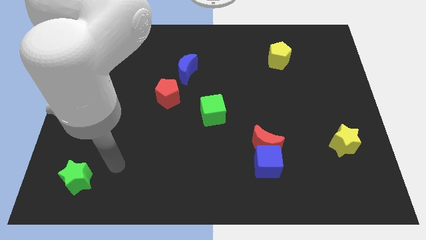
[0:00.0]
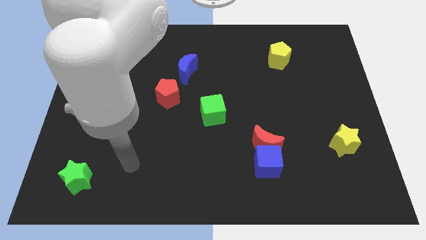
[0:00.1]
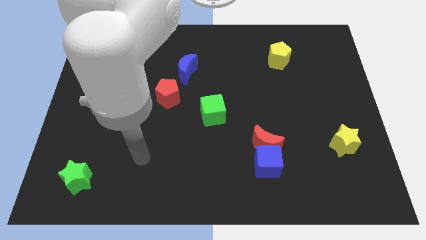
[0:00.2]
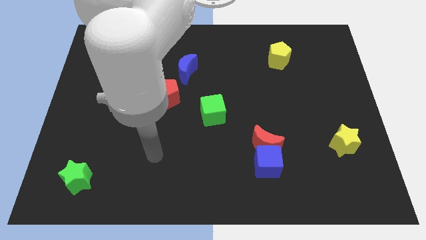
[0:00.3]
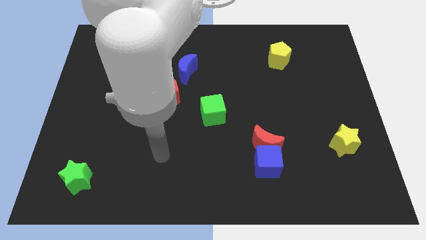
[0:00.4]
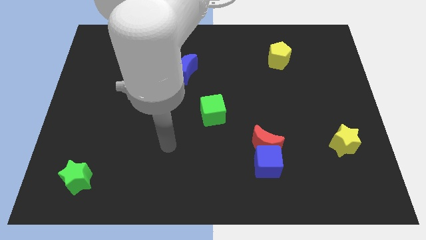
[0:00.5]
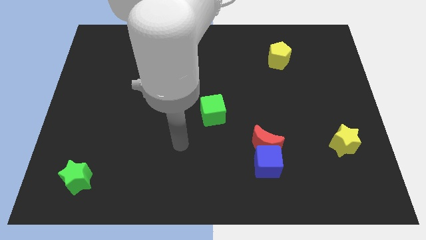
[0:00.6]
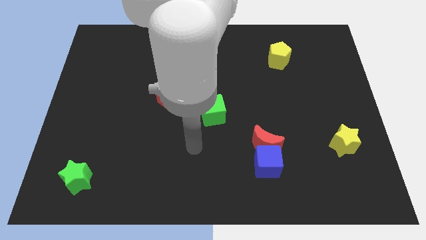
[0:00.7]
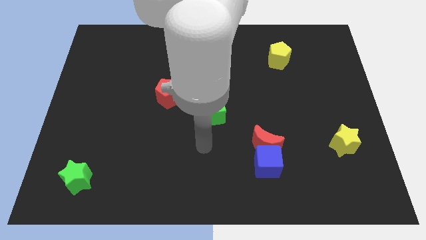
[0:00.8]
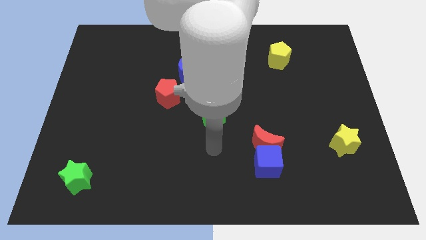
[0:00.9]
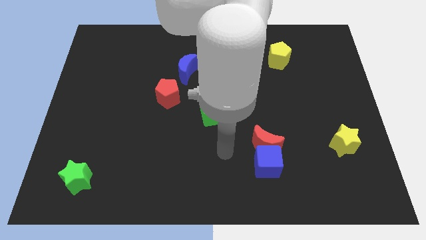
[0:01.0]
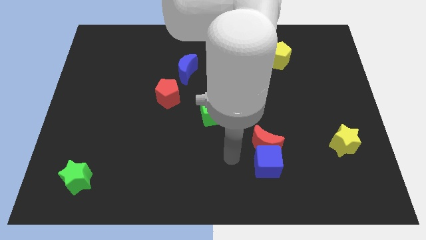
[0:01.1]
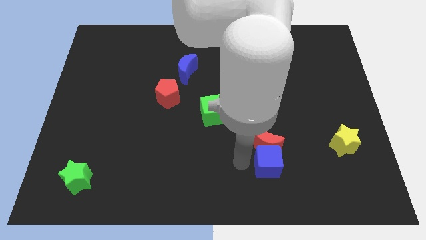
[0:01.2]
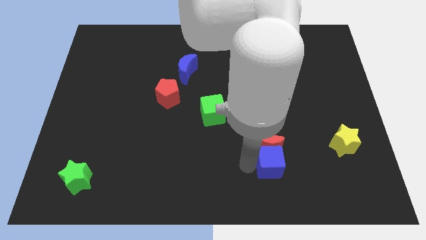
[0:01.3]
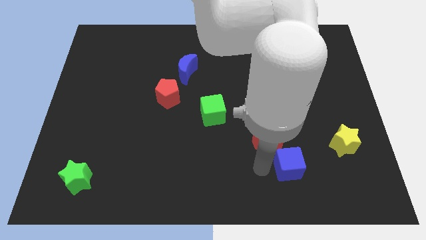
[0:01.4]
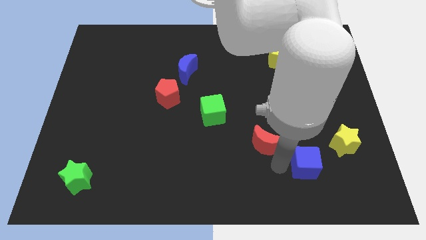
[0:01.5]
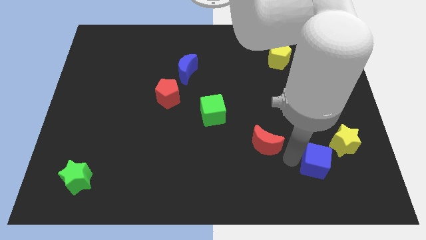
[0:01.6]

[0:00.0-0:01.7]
separate the red moon from the blue cube

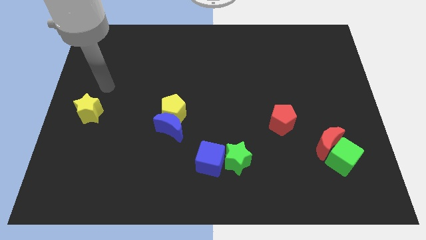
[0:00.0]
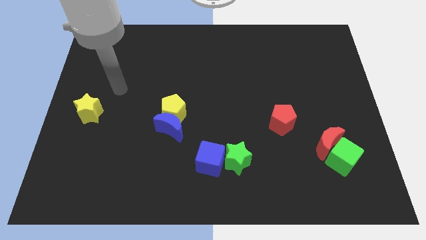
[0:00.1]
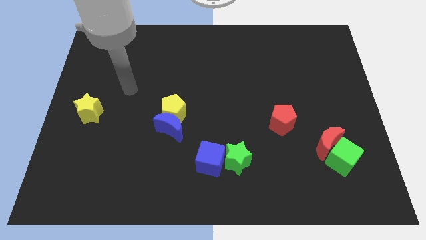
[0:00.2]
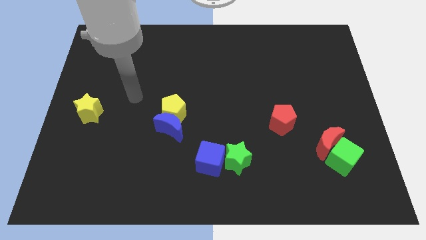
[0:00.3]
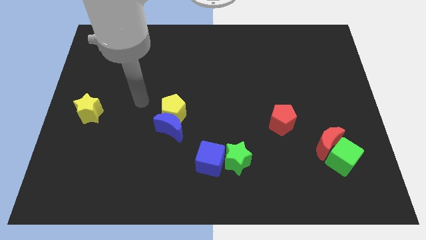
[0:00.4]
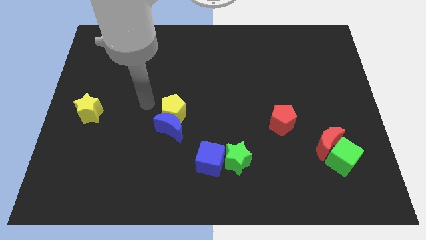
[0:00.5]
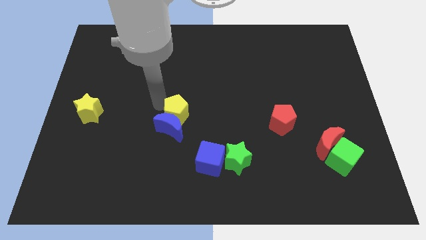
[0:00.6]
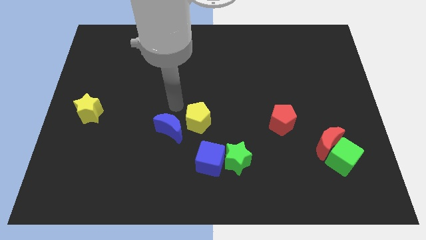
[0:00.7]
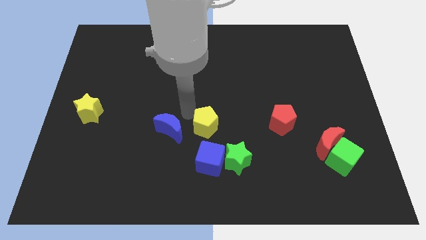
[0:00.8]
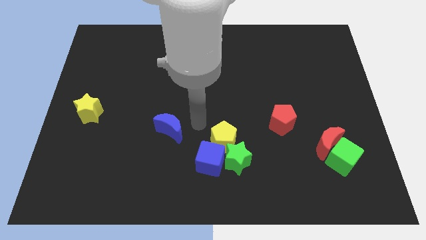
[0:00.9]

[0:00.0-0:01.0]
separate the blue moon from the yellow pentagon

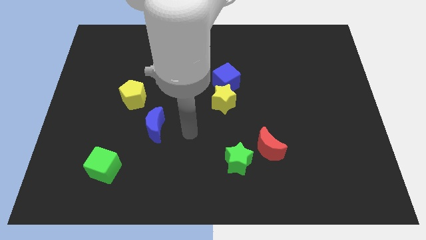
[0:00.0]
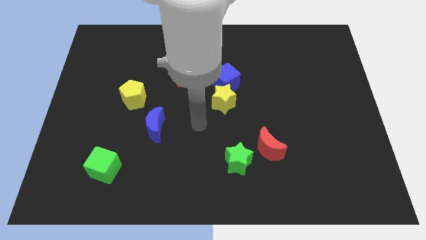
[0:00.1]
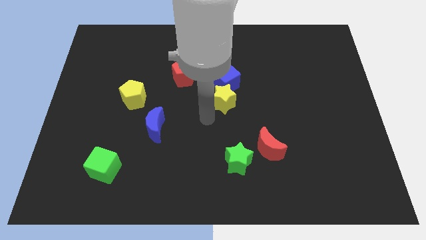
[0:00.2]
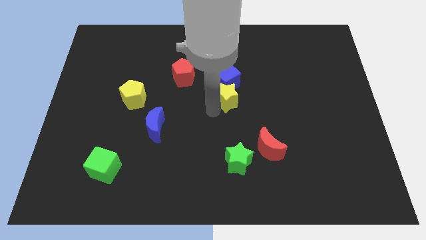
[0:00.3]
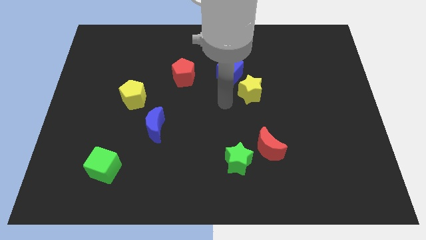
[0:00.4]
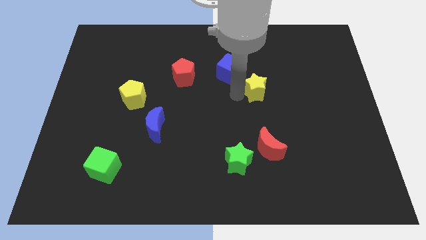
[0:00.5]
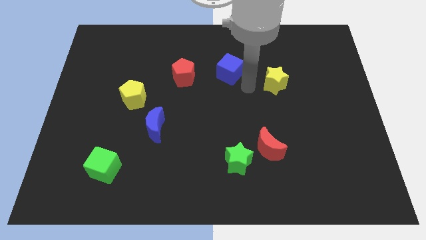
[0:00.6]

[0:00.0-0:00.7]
move the blue cube away from the yellow star

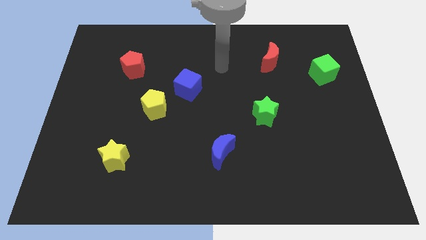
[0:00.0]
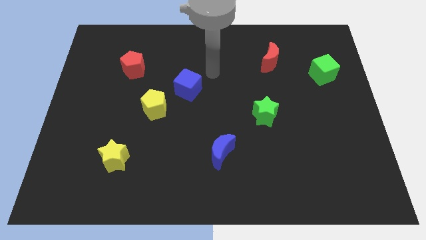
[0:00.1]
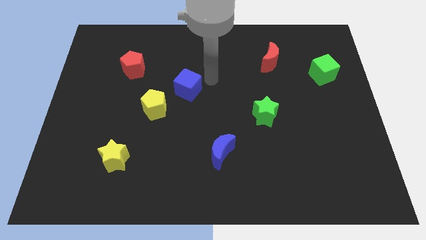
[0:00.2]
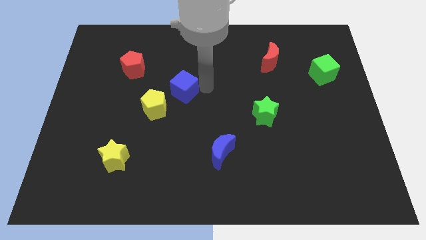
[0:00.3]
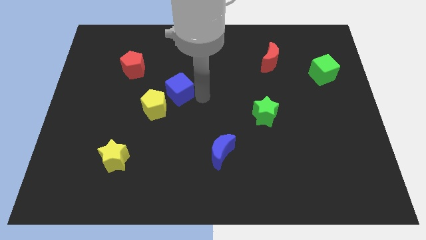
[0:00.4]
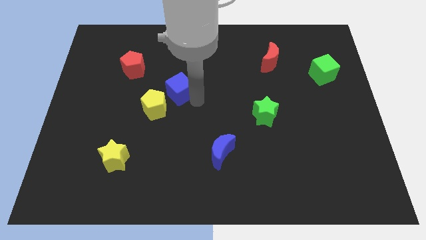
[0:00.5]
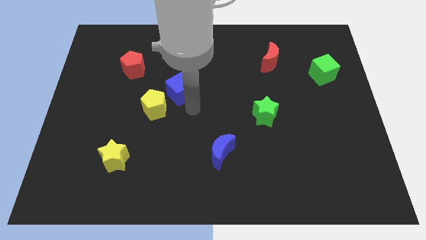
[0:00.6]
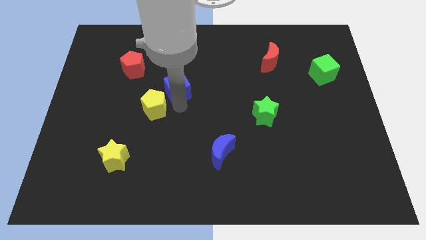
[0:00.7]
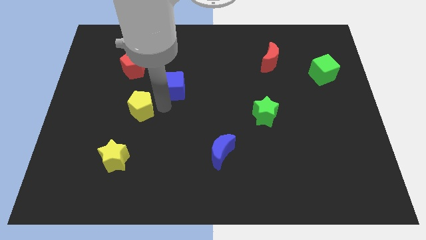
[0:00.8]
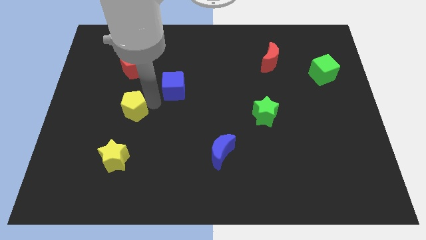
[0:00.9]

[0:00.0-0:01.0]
separate the blue cube from the yellow pentagon

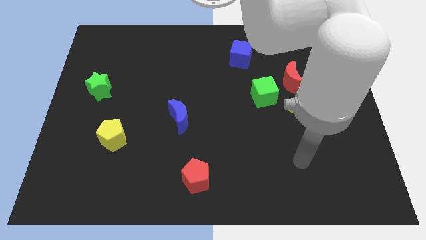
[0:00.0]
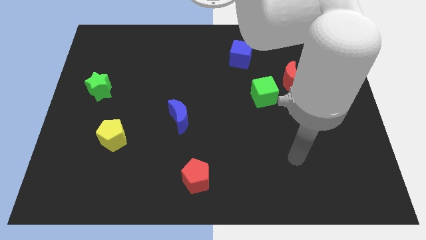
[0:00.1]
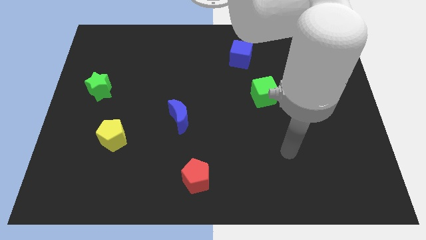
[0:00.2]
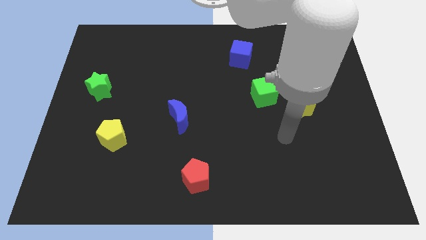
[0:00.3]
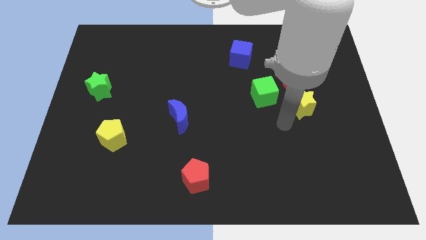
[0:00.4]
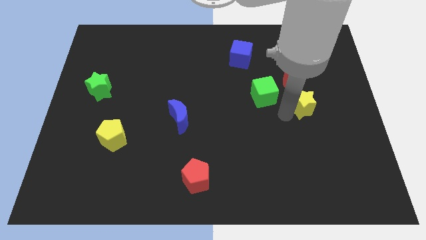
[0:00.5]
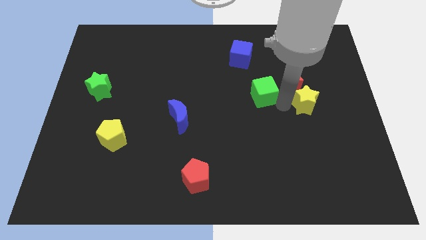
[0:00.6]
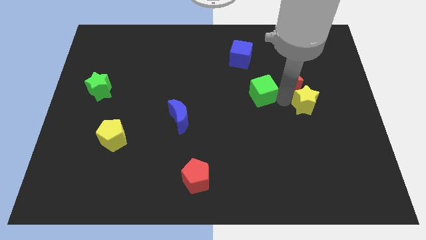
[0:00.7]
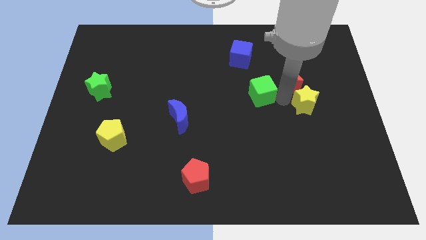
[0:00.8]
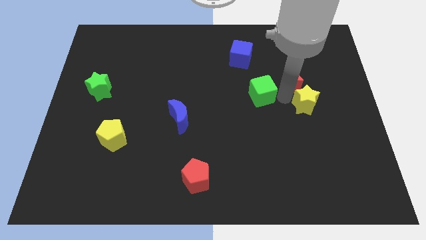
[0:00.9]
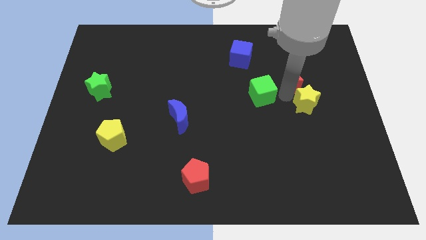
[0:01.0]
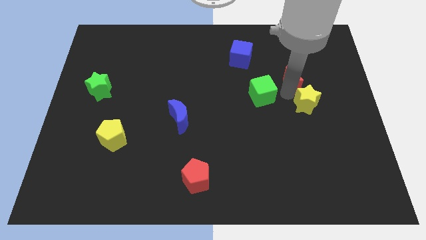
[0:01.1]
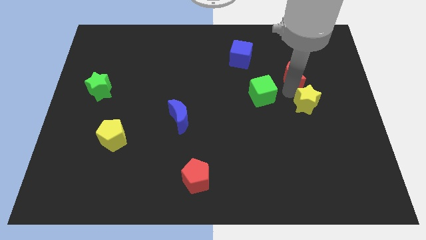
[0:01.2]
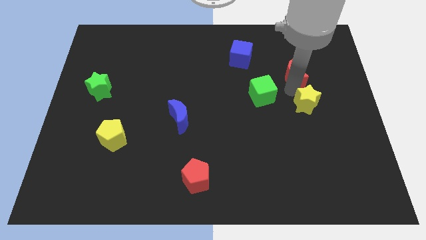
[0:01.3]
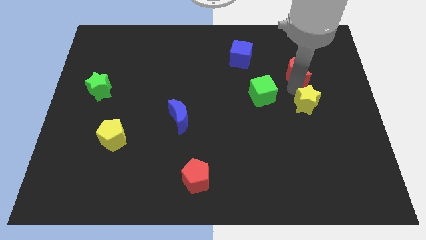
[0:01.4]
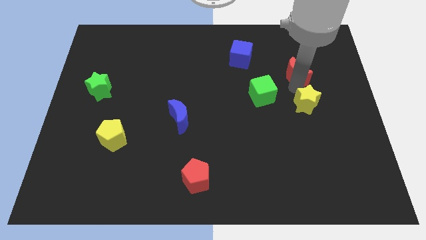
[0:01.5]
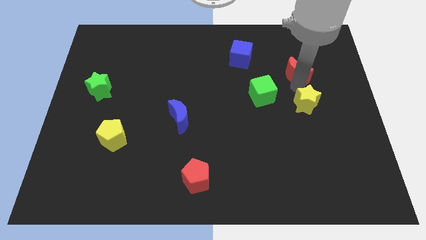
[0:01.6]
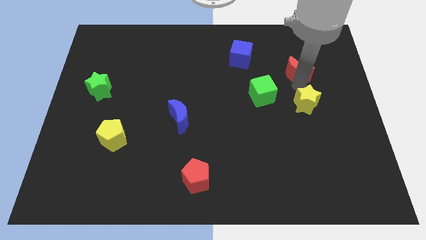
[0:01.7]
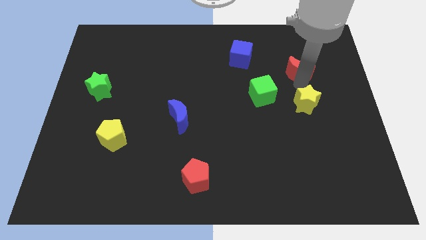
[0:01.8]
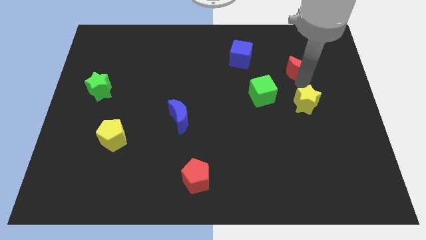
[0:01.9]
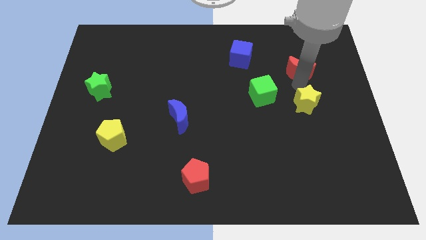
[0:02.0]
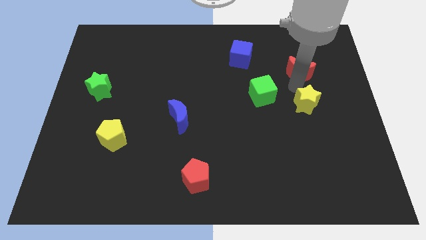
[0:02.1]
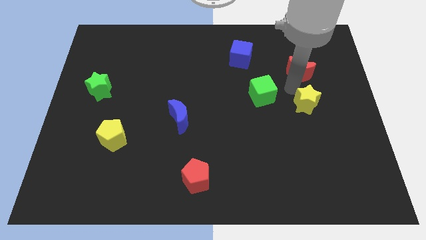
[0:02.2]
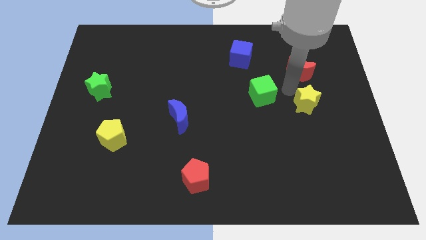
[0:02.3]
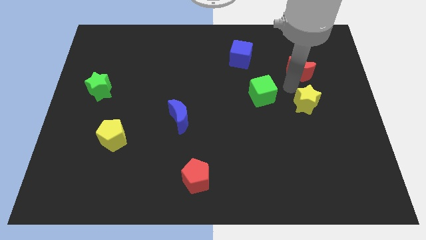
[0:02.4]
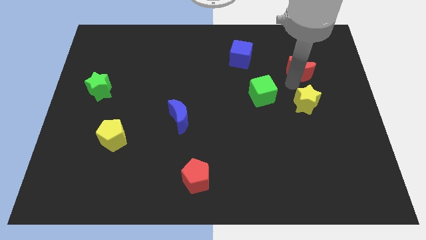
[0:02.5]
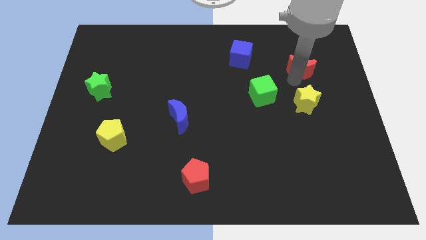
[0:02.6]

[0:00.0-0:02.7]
pull the red moon apart from the green cube and yellow star

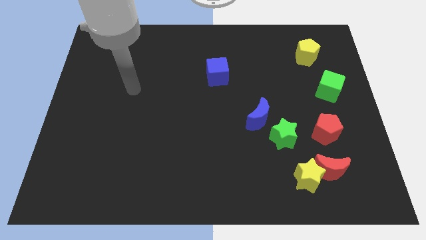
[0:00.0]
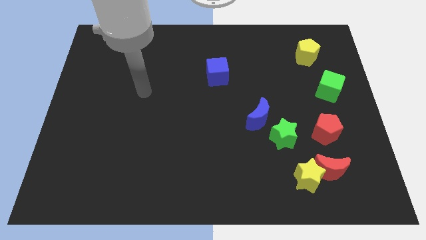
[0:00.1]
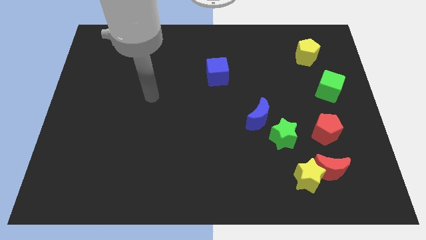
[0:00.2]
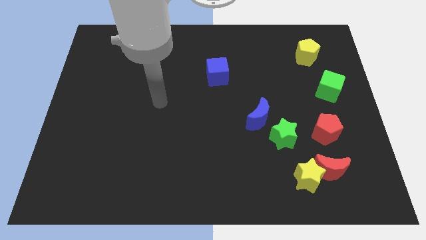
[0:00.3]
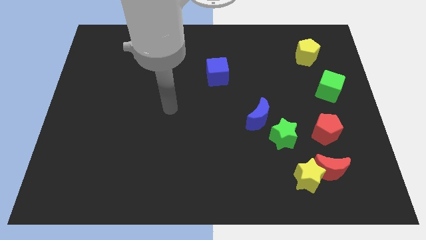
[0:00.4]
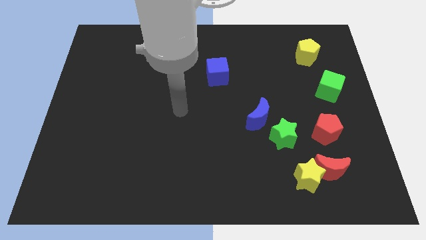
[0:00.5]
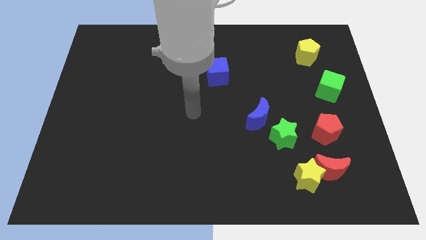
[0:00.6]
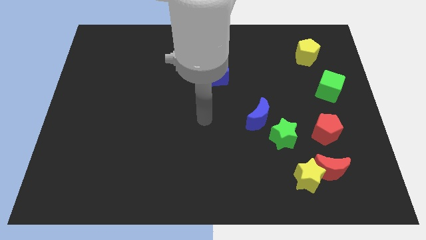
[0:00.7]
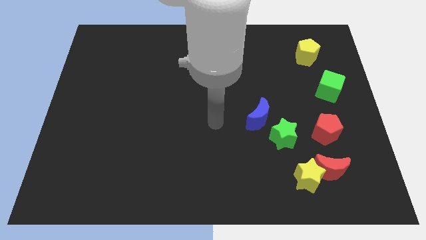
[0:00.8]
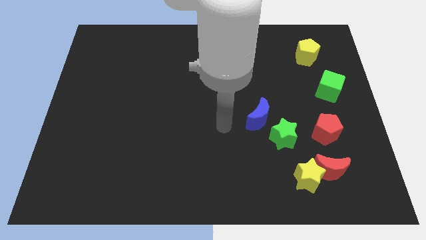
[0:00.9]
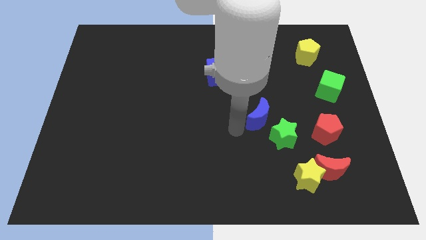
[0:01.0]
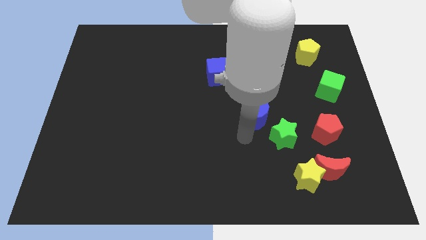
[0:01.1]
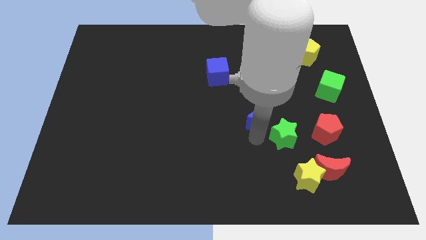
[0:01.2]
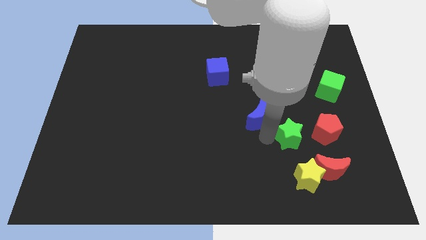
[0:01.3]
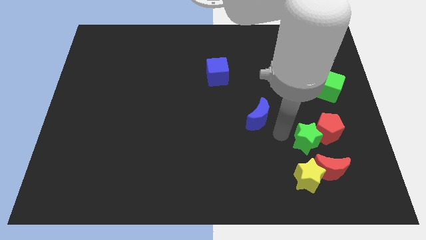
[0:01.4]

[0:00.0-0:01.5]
move the blue moon away from the green star

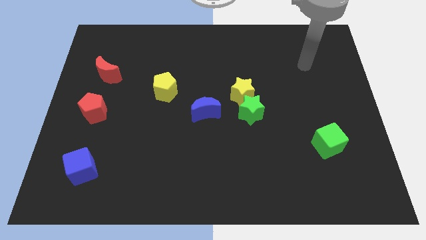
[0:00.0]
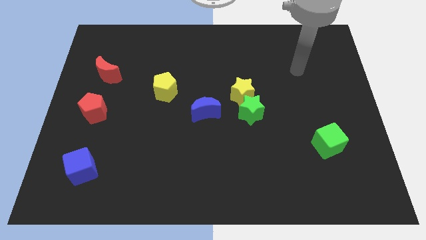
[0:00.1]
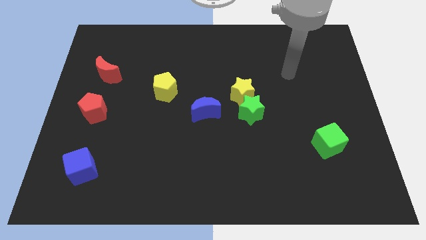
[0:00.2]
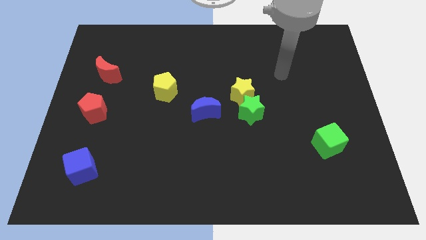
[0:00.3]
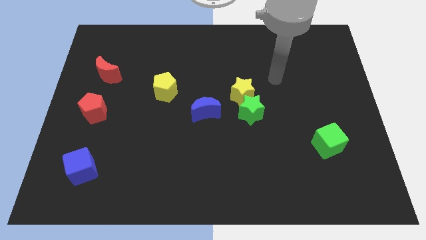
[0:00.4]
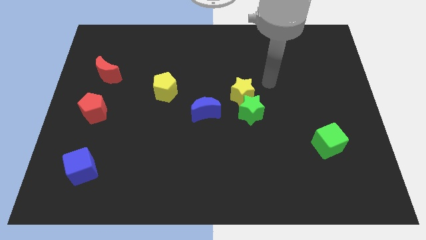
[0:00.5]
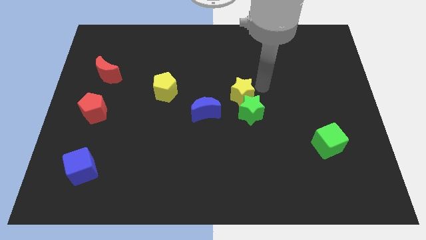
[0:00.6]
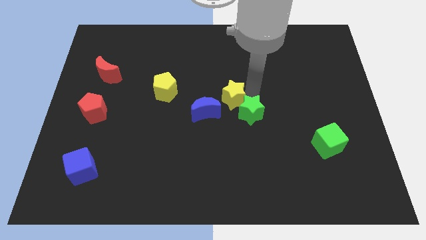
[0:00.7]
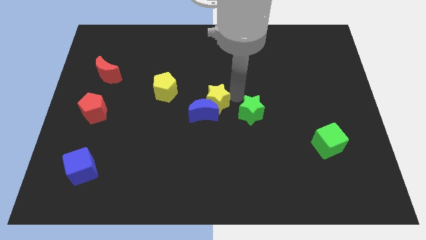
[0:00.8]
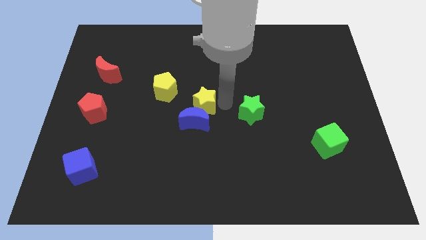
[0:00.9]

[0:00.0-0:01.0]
pull the green star apart from the yellow star
